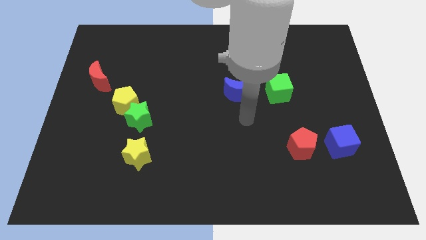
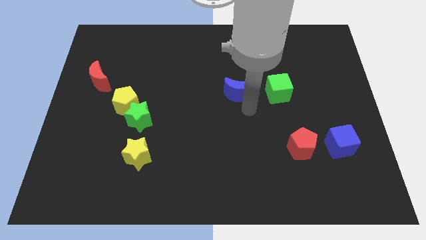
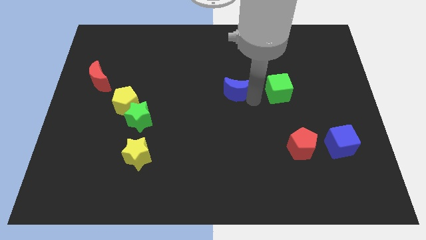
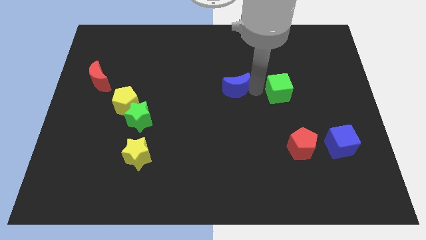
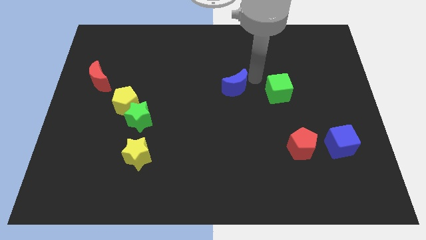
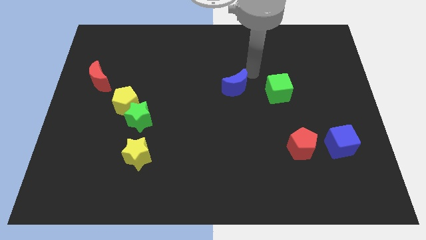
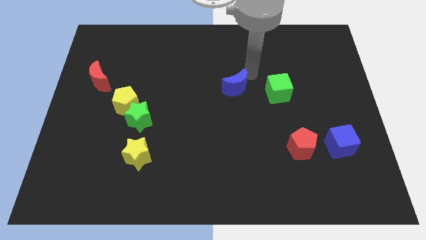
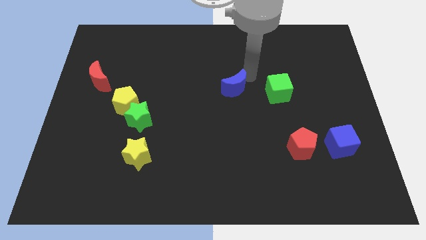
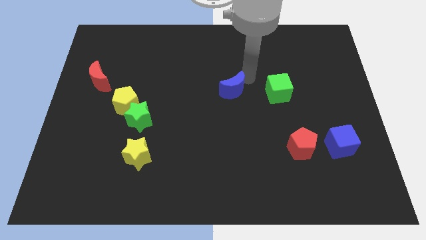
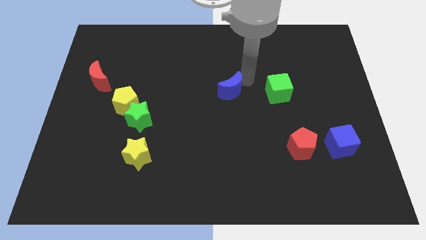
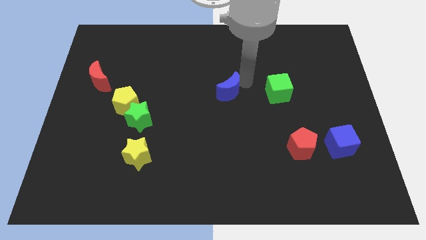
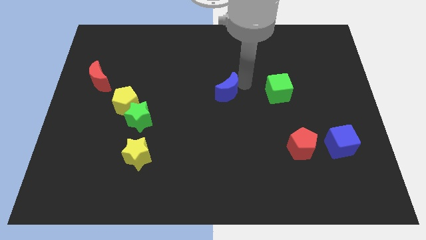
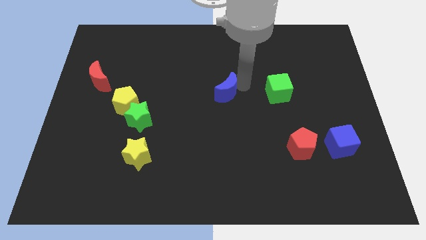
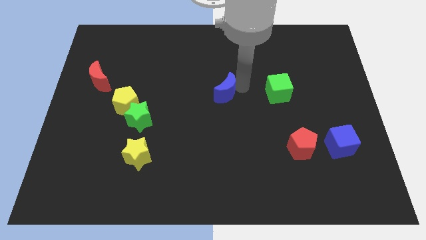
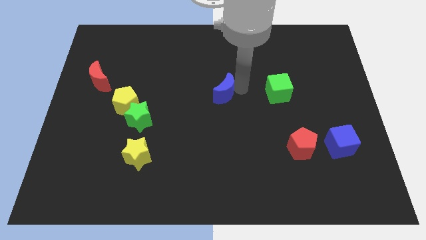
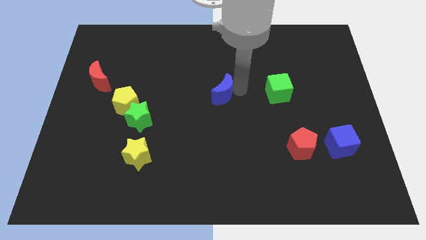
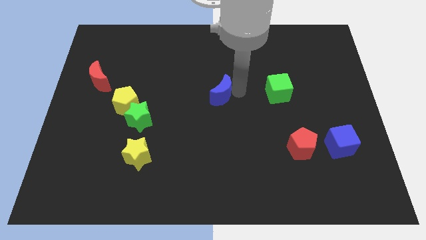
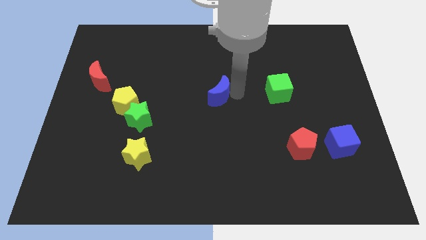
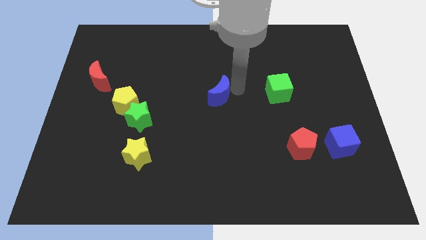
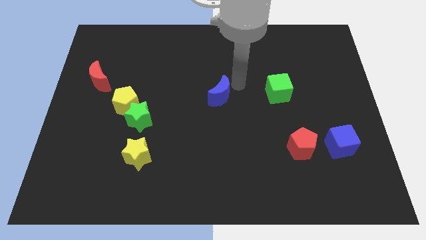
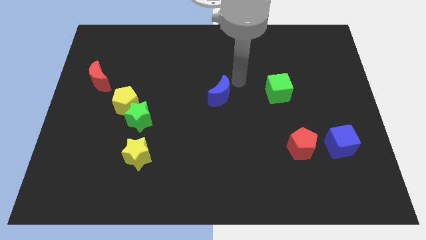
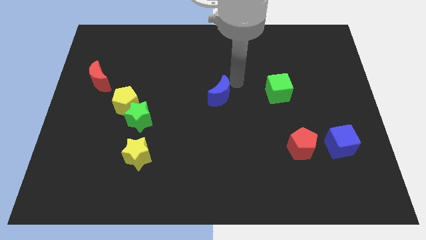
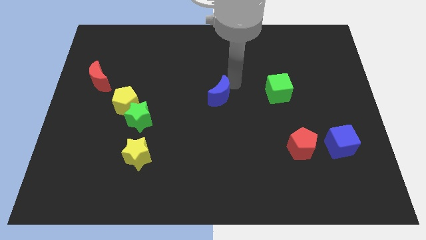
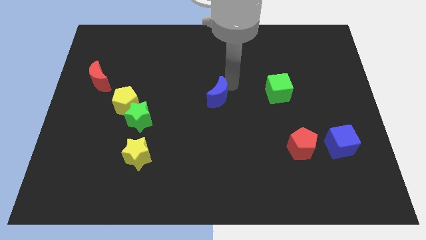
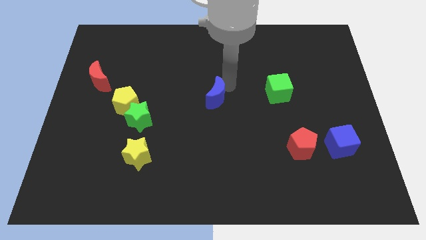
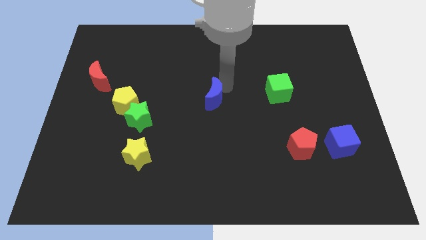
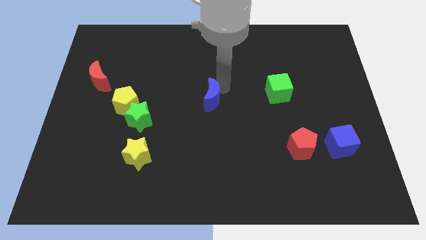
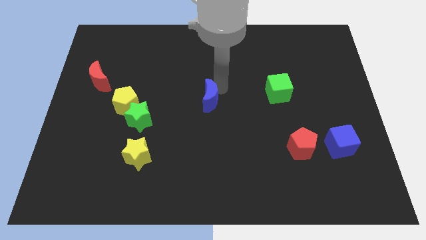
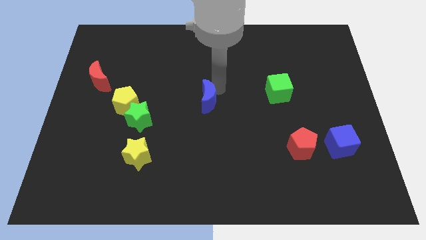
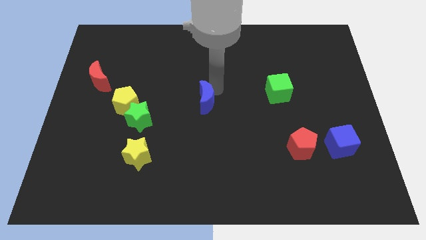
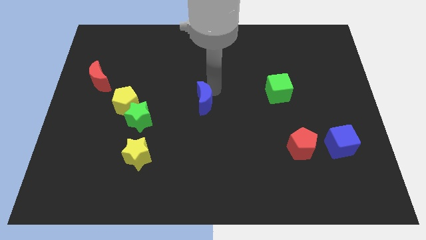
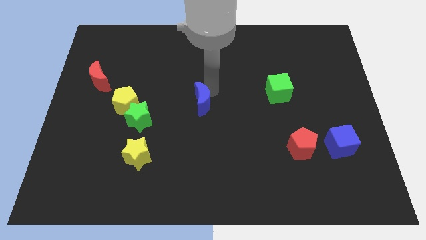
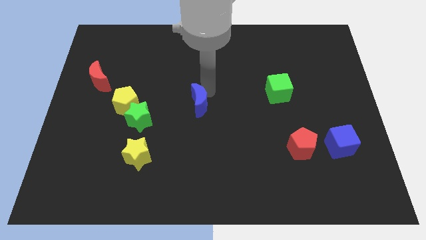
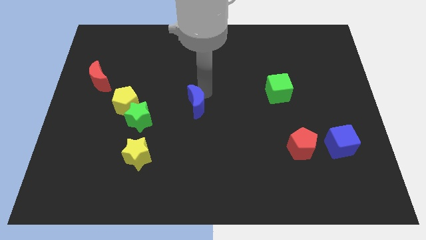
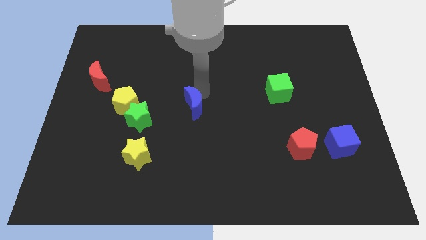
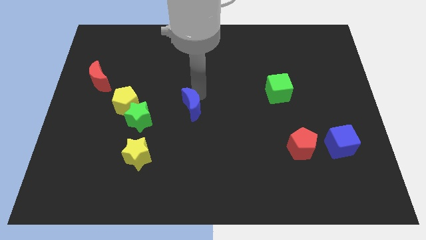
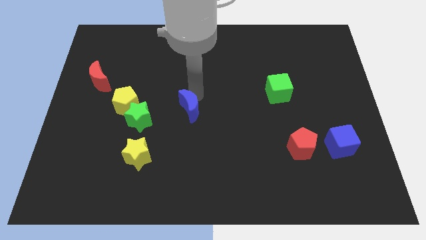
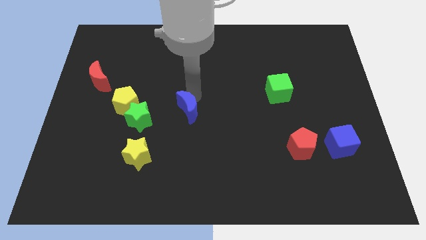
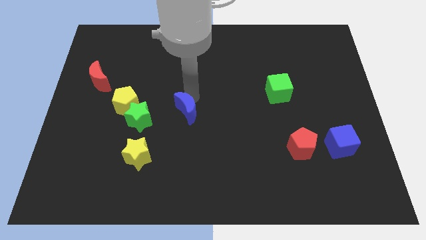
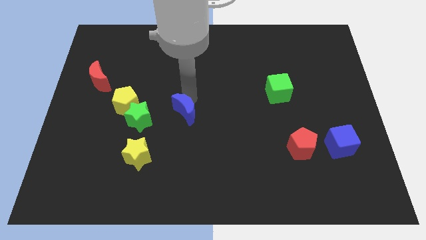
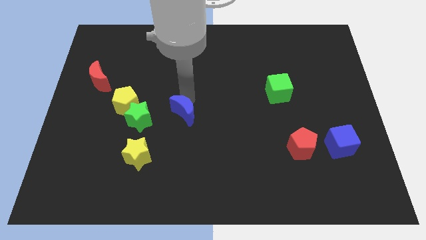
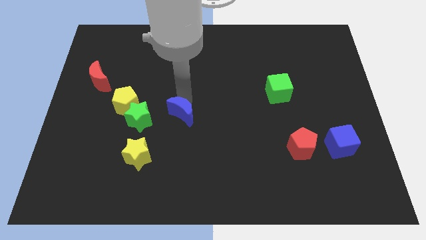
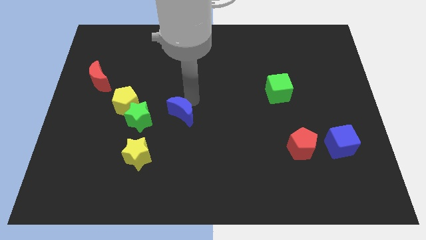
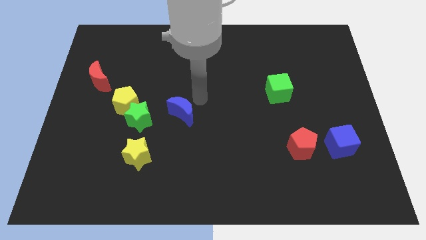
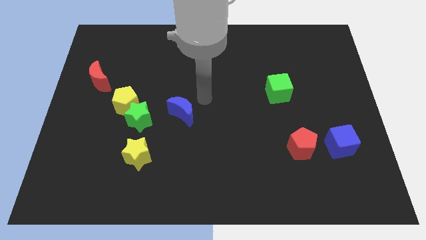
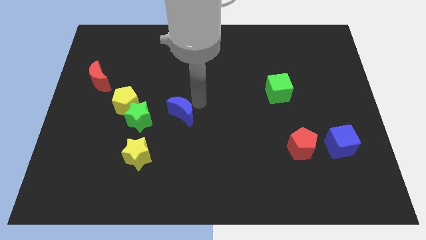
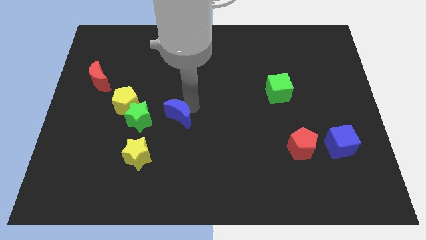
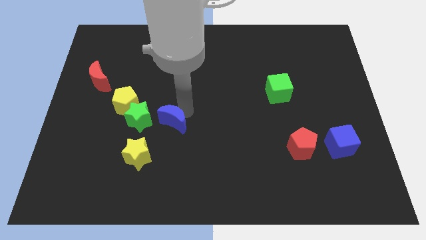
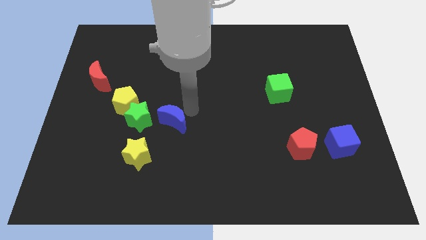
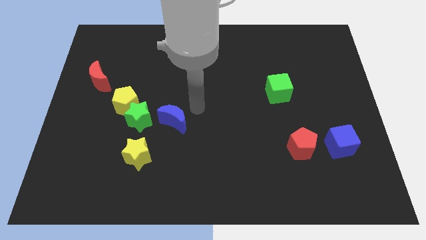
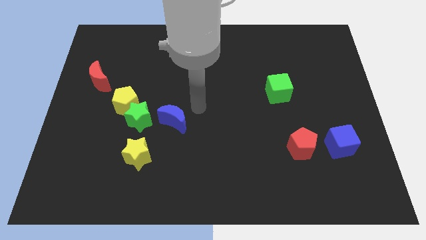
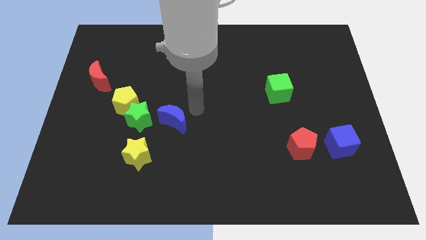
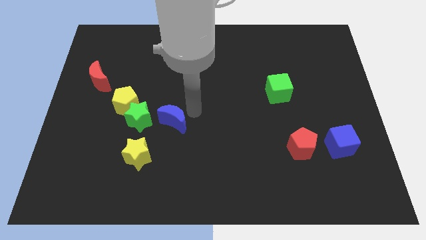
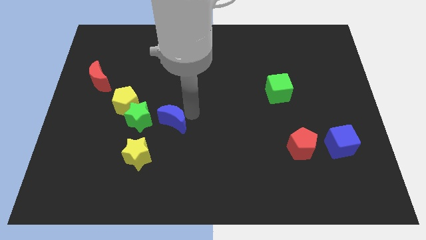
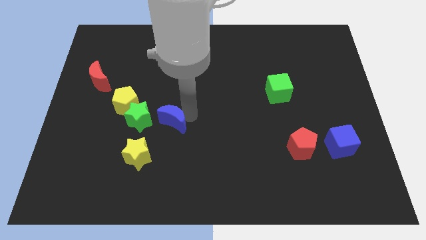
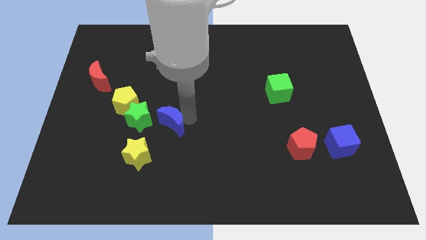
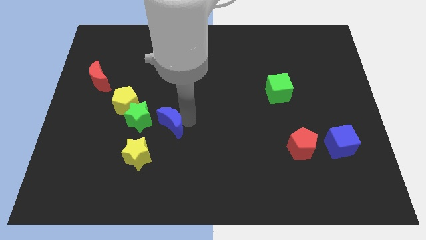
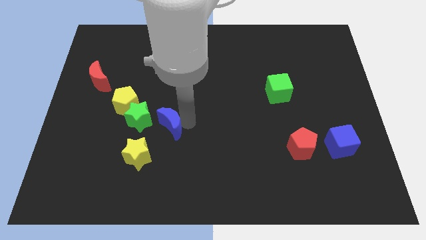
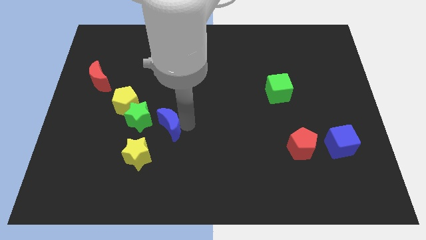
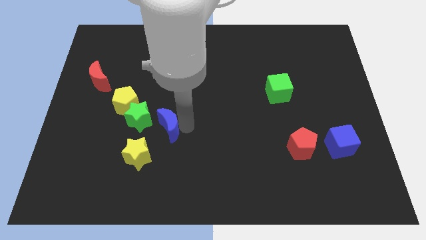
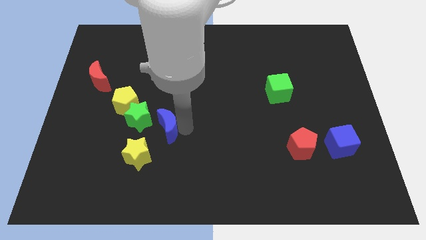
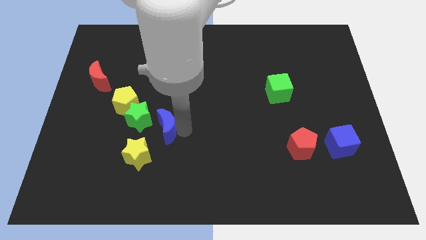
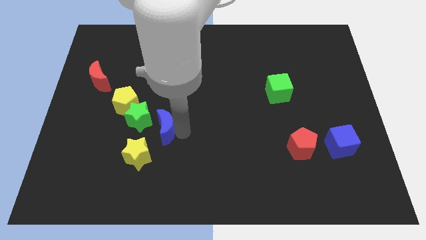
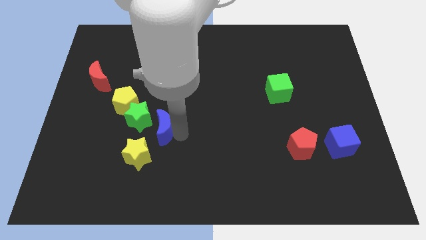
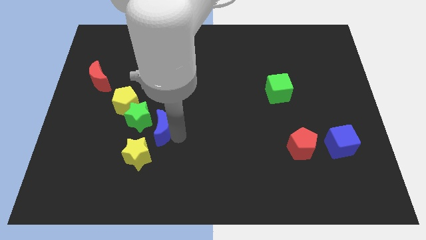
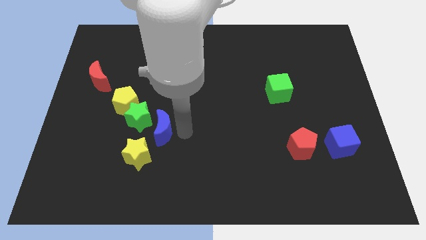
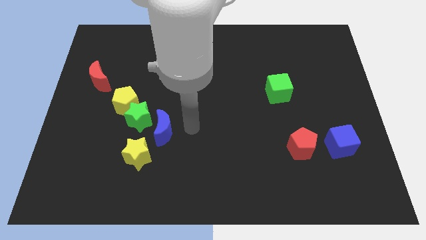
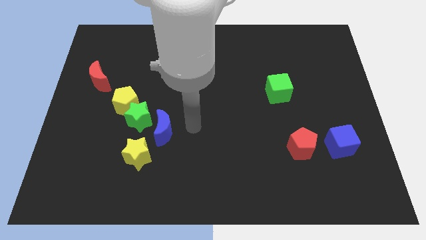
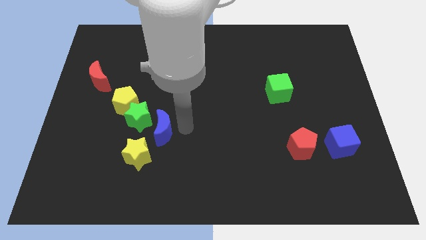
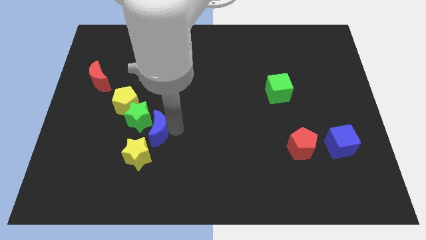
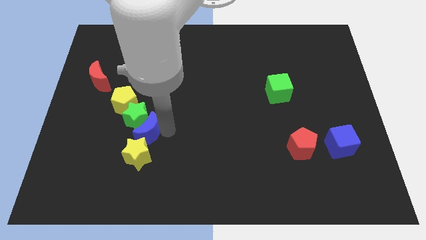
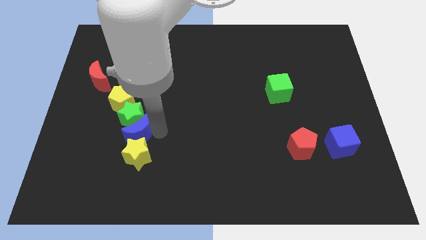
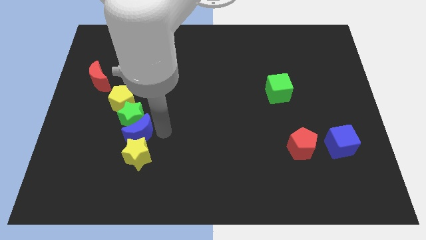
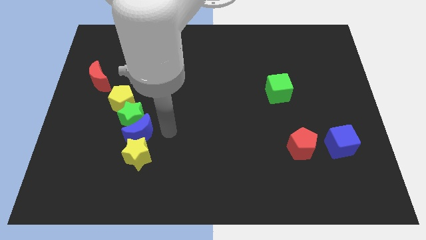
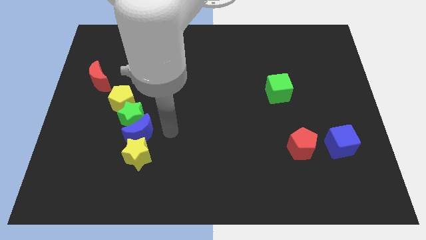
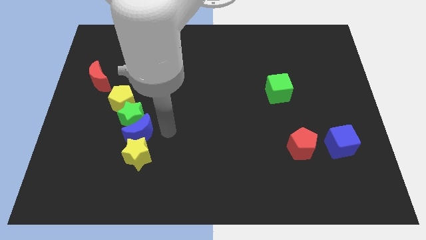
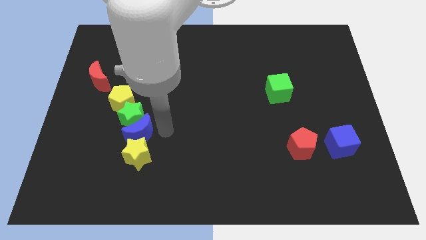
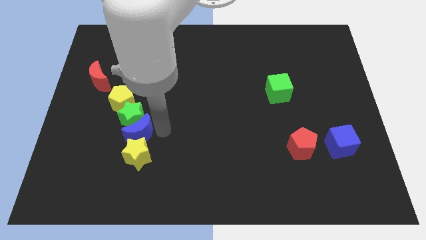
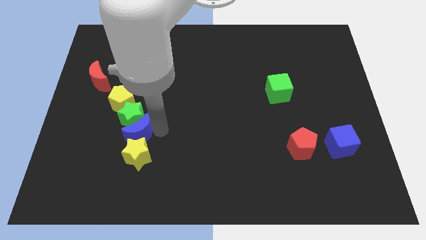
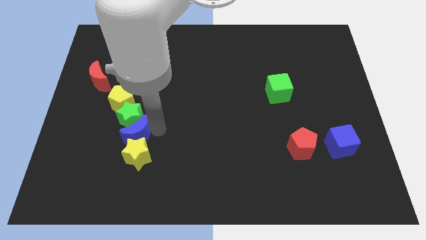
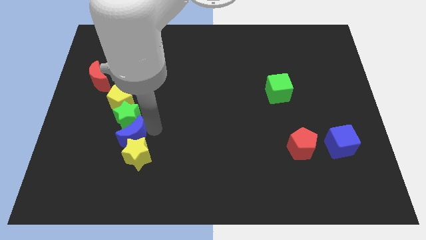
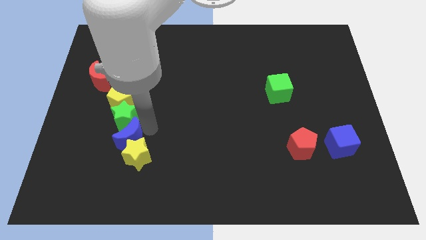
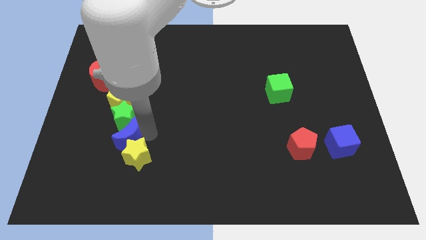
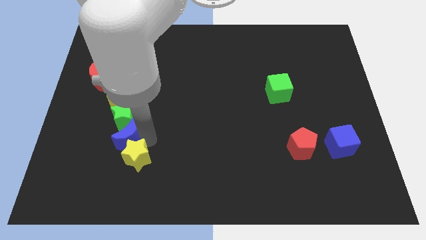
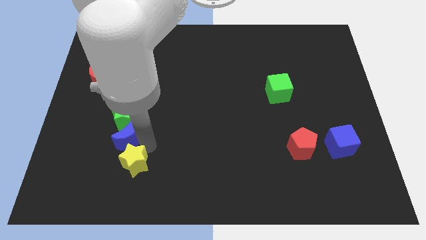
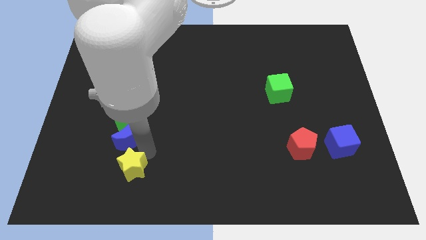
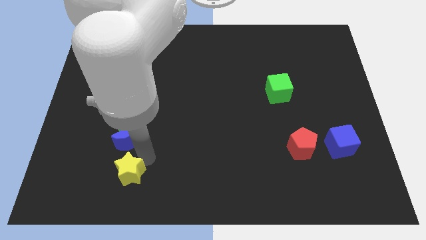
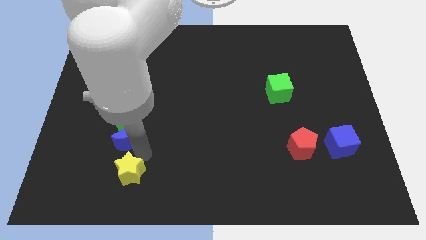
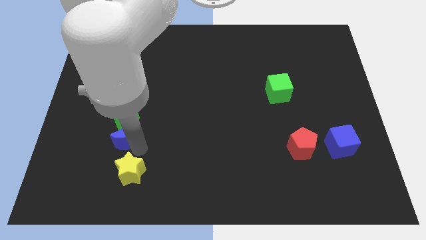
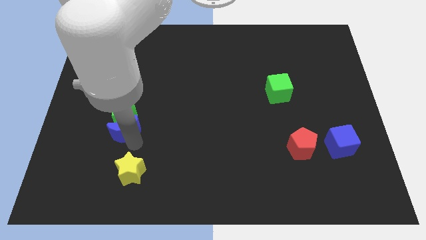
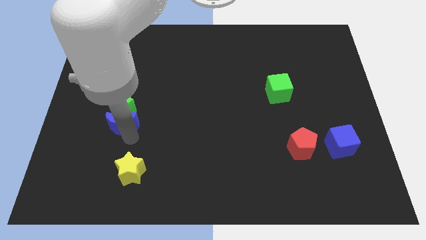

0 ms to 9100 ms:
move the blue moon left
